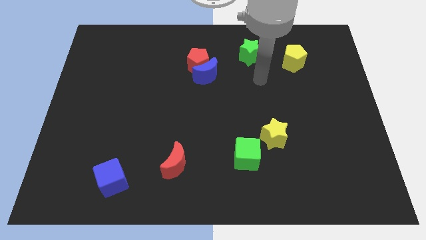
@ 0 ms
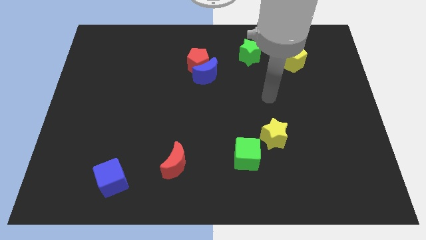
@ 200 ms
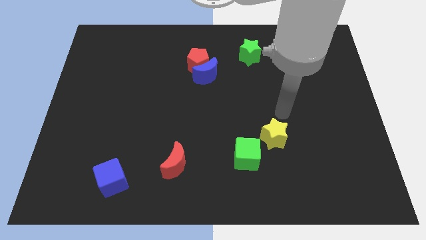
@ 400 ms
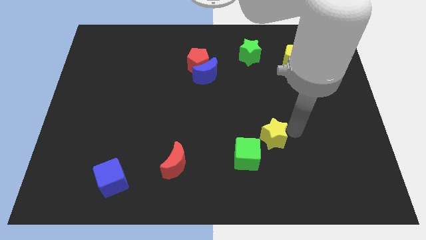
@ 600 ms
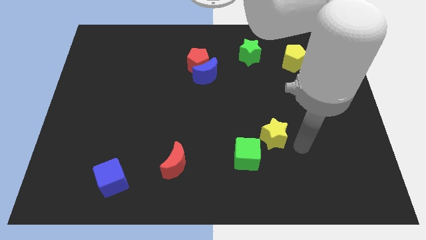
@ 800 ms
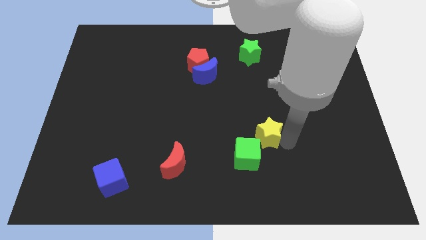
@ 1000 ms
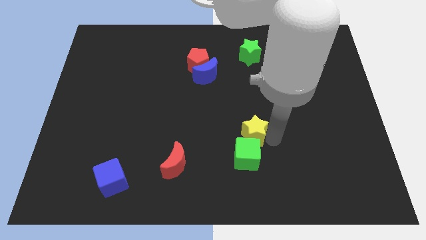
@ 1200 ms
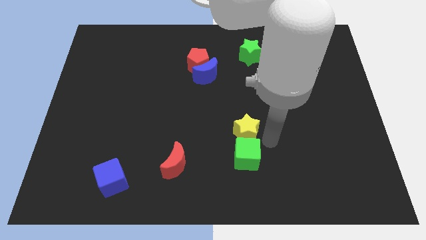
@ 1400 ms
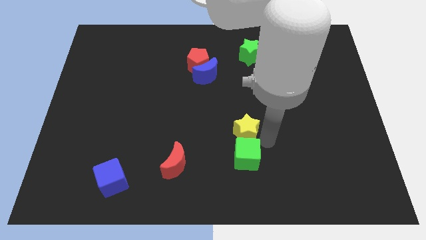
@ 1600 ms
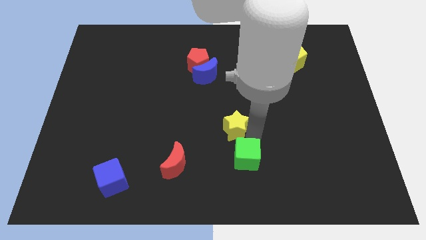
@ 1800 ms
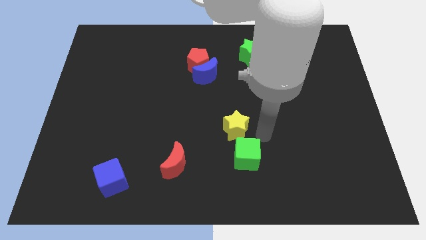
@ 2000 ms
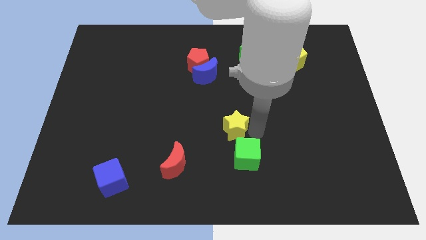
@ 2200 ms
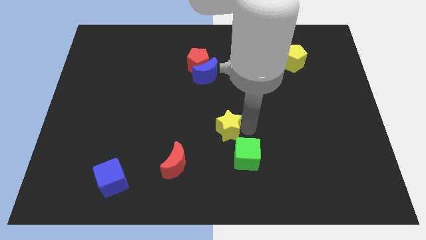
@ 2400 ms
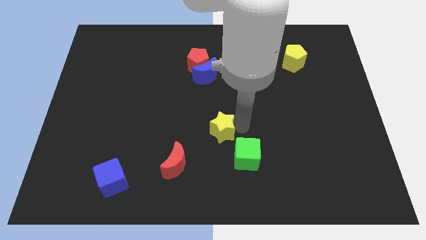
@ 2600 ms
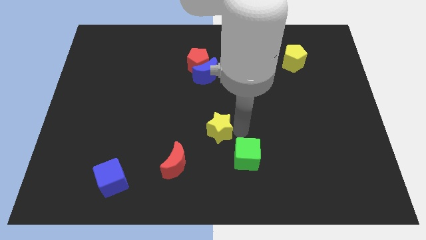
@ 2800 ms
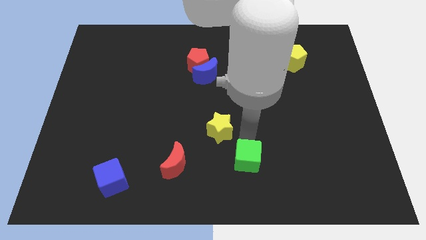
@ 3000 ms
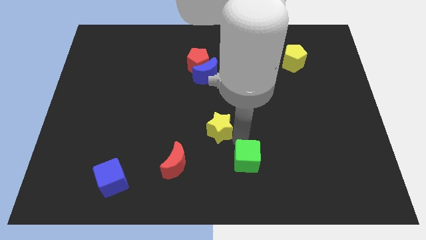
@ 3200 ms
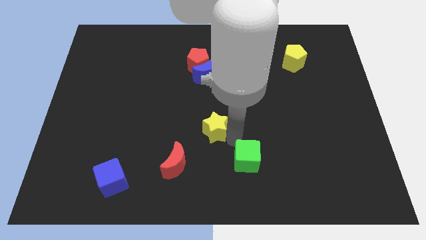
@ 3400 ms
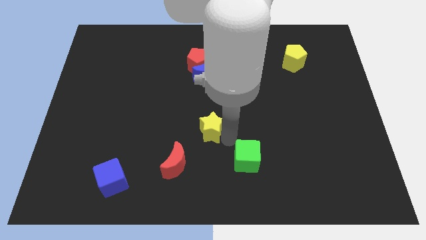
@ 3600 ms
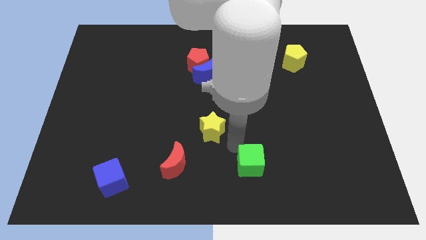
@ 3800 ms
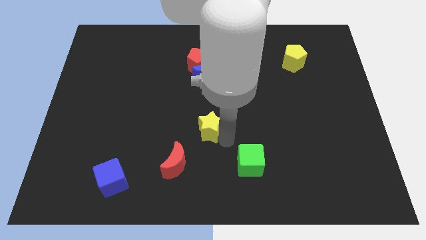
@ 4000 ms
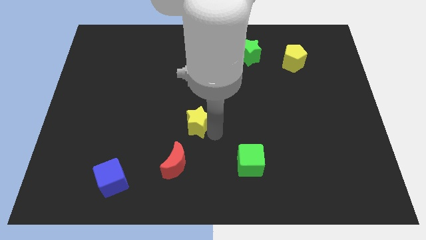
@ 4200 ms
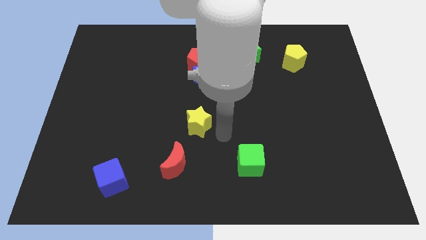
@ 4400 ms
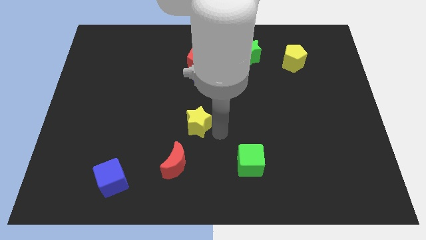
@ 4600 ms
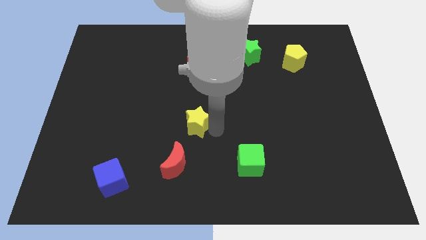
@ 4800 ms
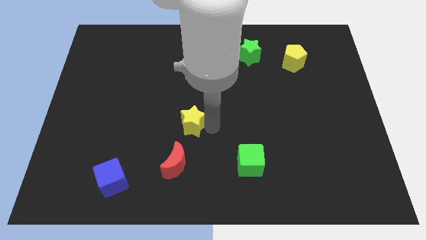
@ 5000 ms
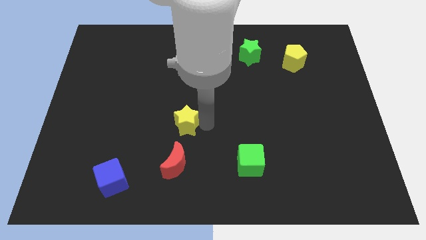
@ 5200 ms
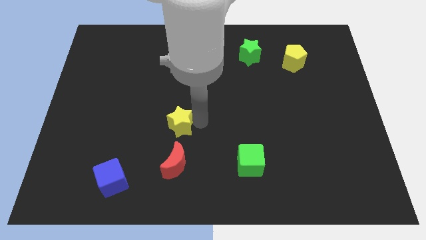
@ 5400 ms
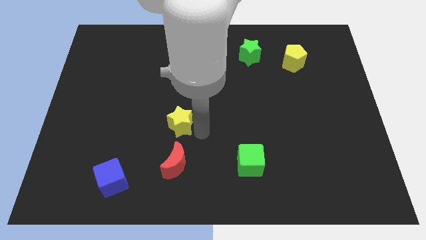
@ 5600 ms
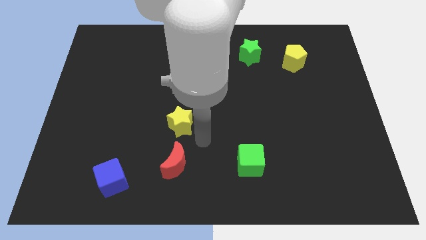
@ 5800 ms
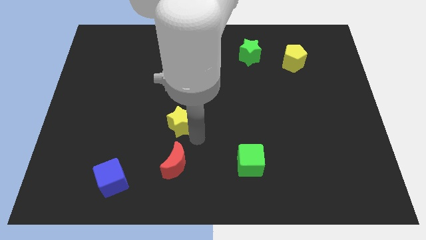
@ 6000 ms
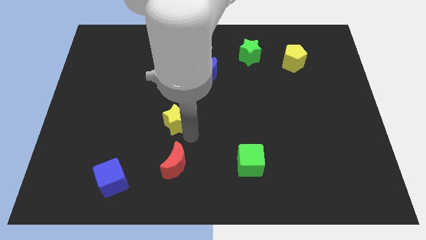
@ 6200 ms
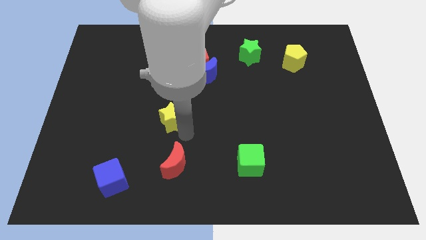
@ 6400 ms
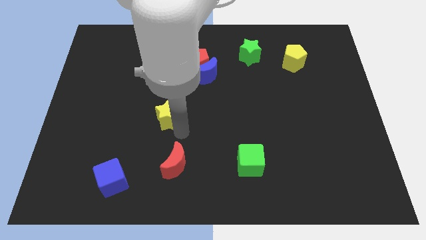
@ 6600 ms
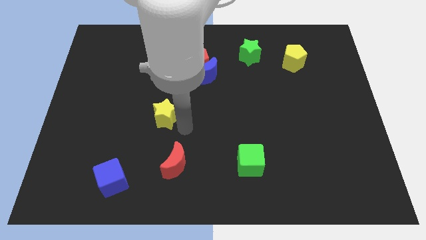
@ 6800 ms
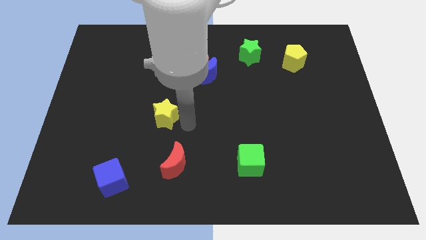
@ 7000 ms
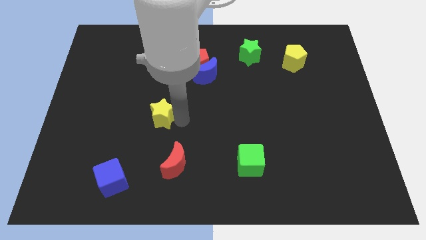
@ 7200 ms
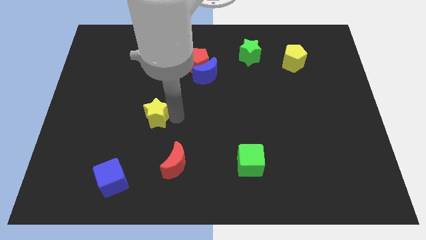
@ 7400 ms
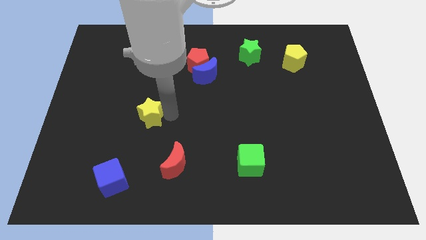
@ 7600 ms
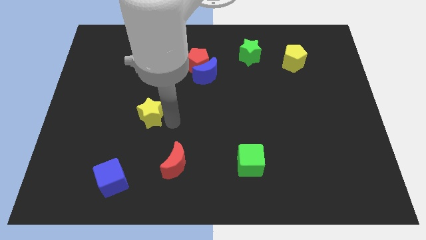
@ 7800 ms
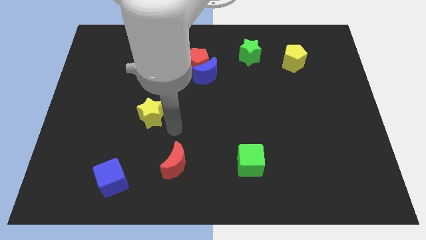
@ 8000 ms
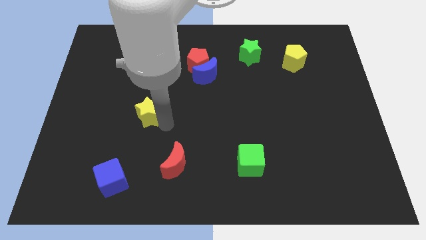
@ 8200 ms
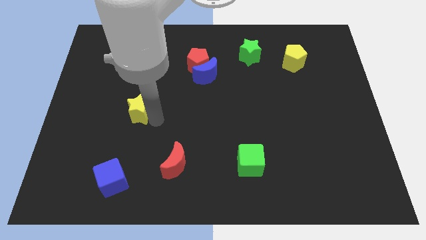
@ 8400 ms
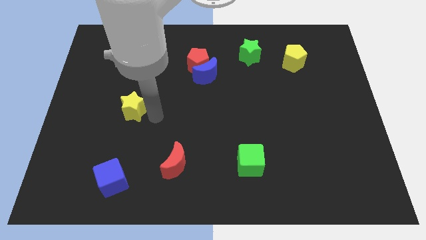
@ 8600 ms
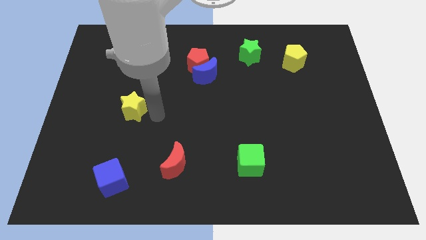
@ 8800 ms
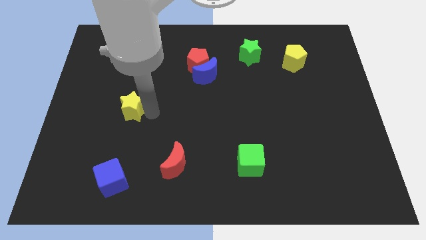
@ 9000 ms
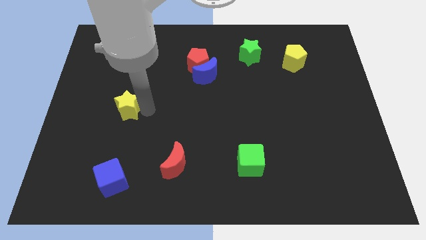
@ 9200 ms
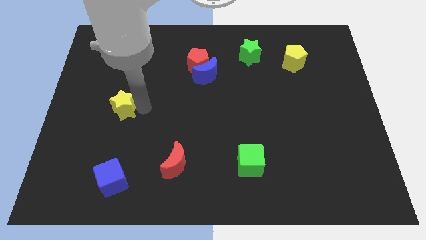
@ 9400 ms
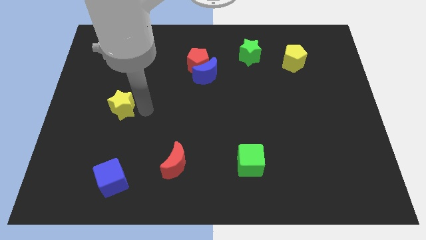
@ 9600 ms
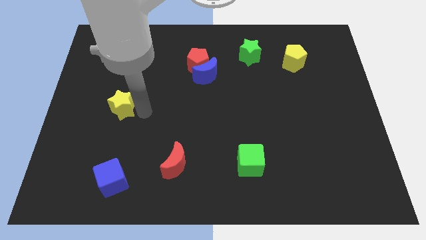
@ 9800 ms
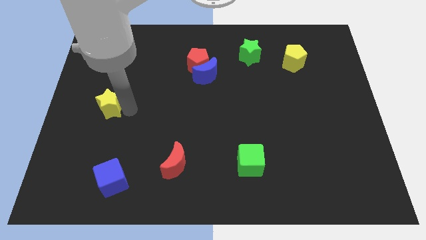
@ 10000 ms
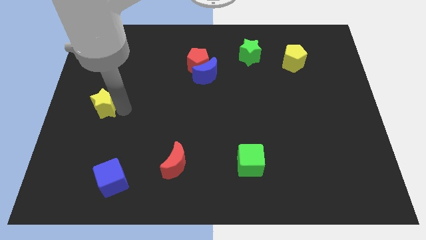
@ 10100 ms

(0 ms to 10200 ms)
move the yellow star to the left side
